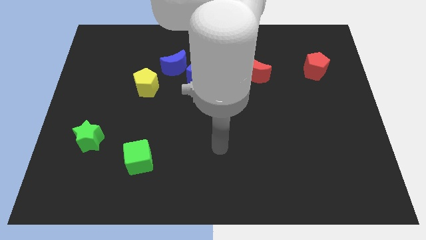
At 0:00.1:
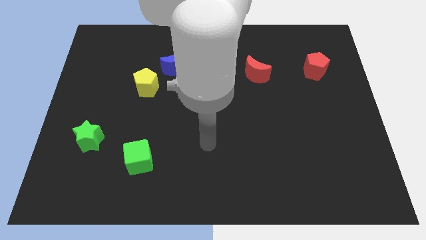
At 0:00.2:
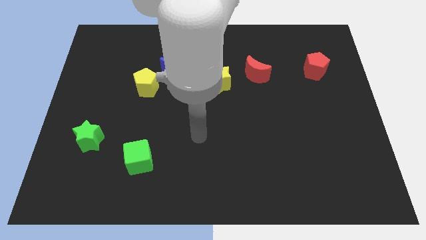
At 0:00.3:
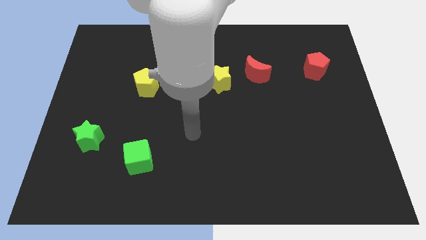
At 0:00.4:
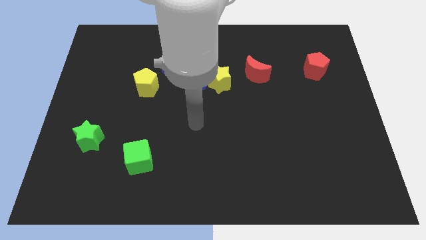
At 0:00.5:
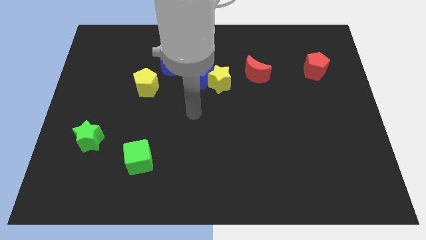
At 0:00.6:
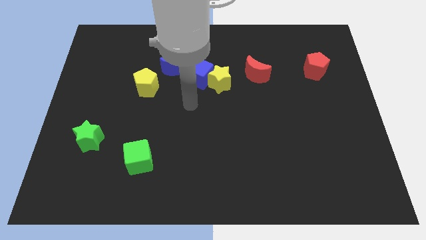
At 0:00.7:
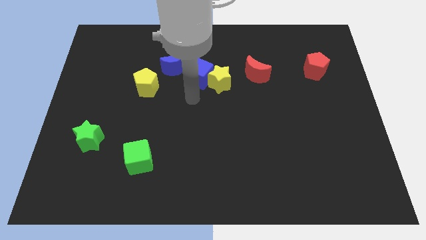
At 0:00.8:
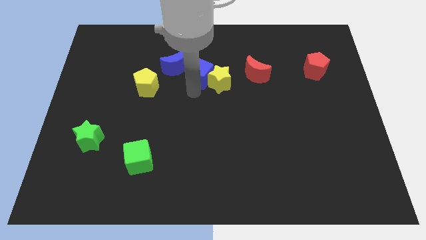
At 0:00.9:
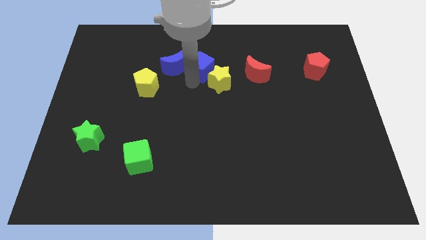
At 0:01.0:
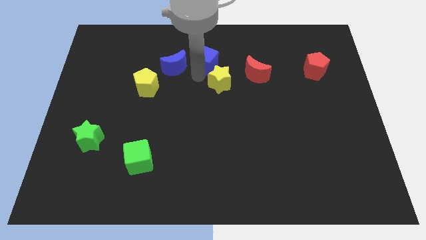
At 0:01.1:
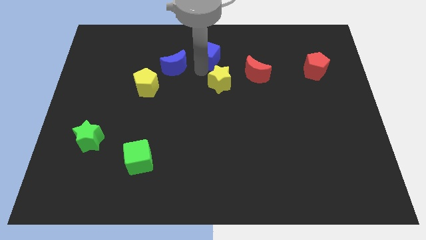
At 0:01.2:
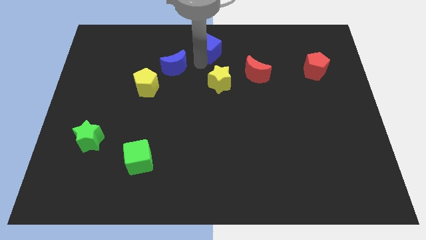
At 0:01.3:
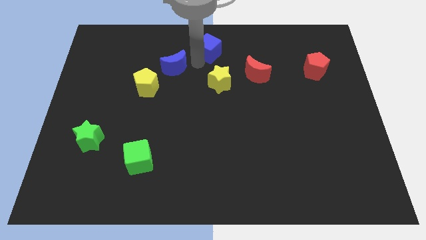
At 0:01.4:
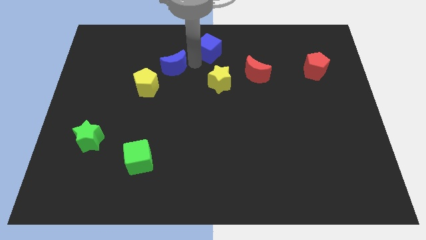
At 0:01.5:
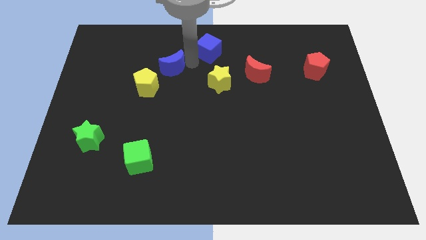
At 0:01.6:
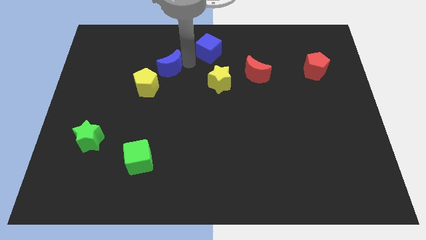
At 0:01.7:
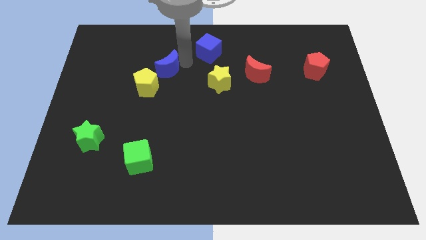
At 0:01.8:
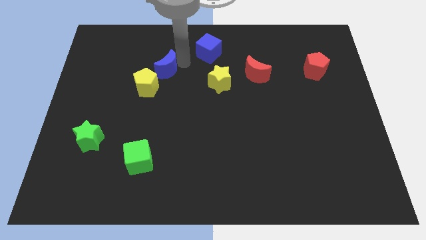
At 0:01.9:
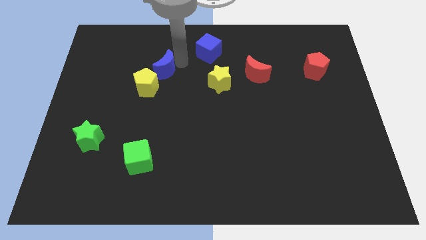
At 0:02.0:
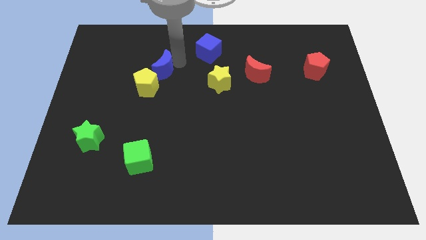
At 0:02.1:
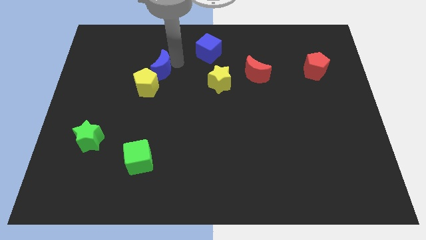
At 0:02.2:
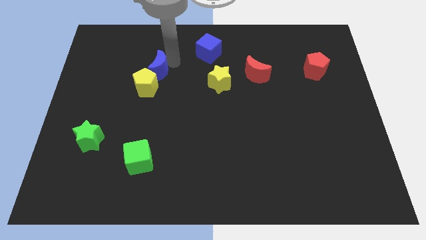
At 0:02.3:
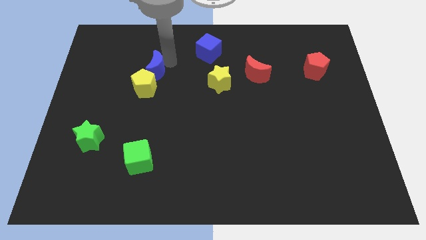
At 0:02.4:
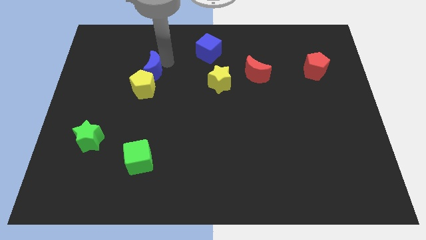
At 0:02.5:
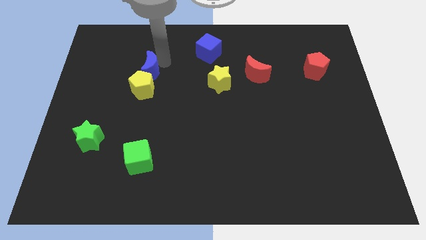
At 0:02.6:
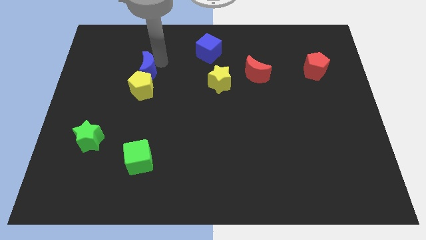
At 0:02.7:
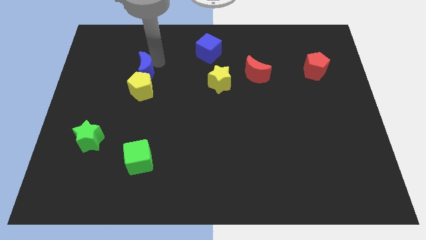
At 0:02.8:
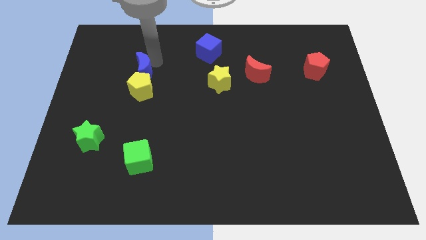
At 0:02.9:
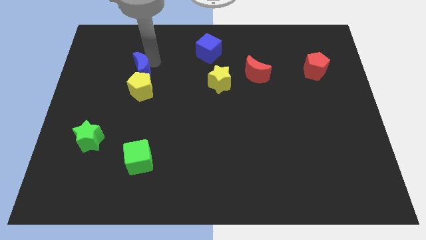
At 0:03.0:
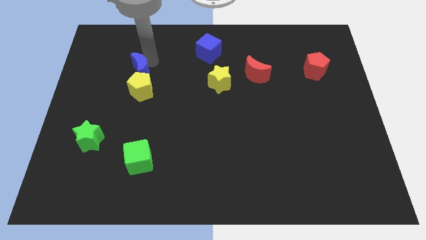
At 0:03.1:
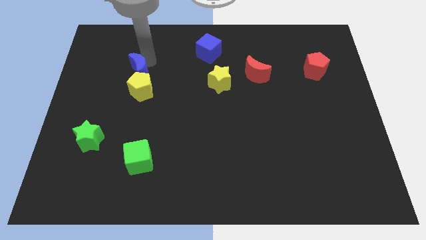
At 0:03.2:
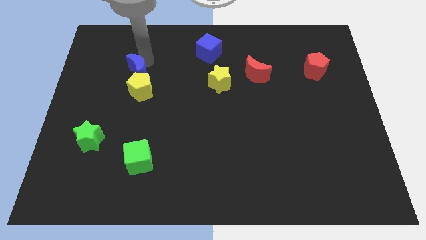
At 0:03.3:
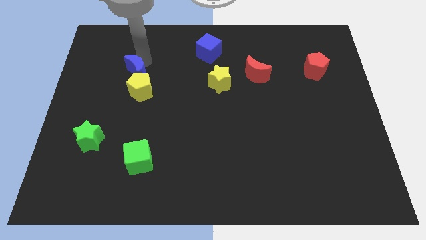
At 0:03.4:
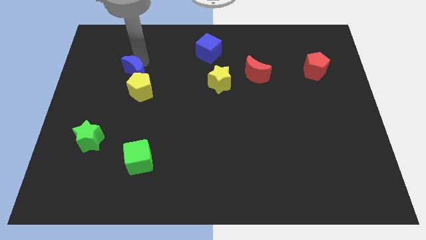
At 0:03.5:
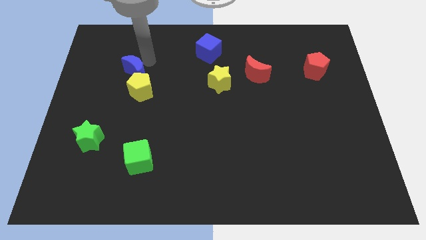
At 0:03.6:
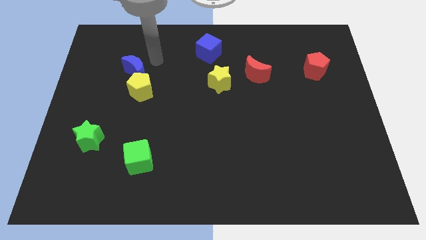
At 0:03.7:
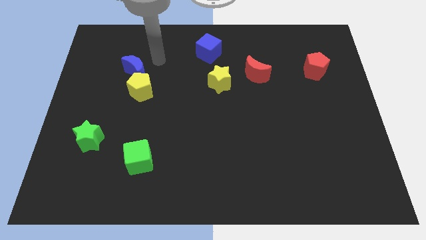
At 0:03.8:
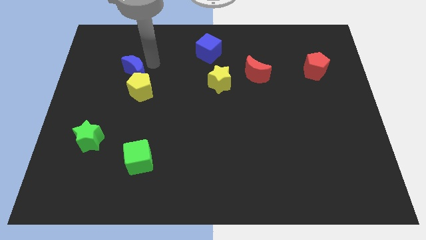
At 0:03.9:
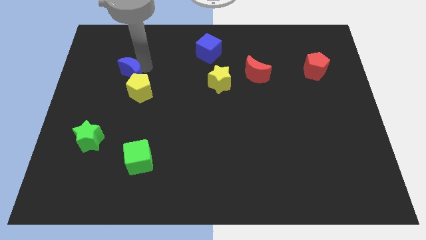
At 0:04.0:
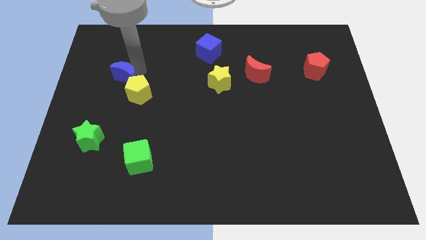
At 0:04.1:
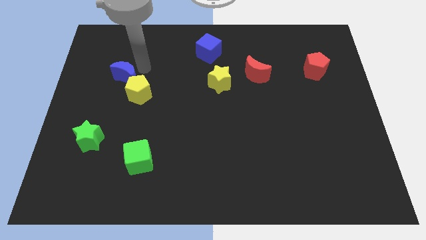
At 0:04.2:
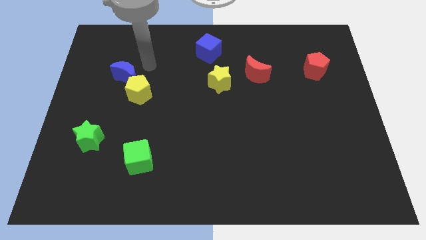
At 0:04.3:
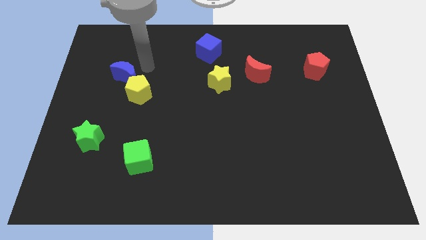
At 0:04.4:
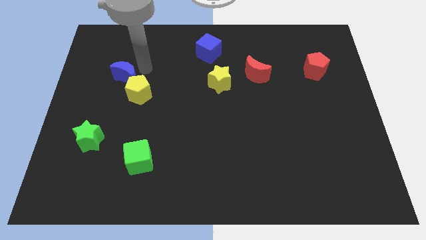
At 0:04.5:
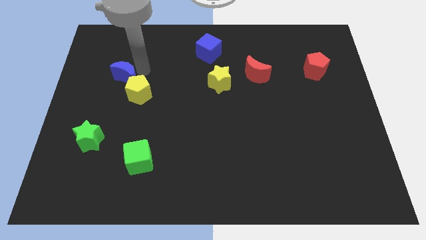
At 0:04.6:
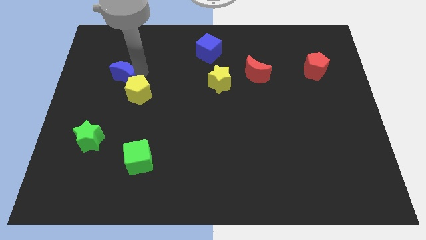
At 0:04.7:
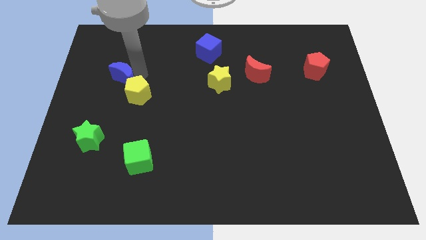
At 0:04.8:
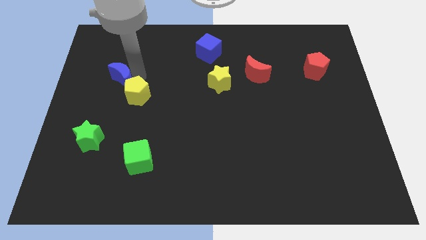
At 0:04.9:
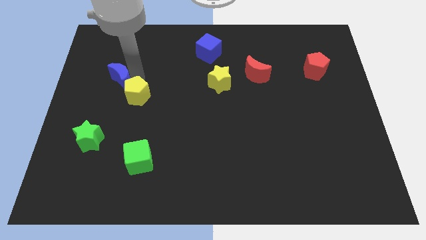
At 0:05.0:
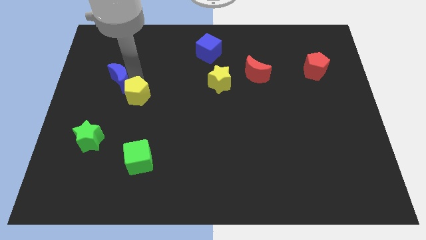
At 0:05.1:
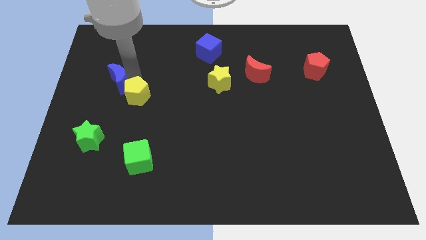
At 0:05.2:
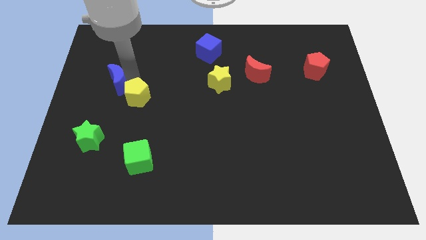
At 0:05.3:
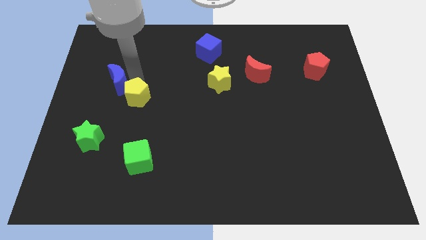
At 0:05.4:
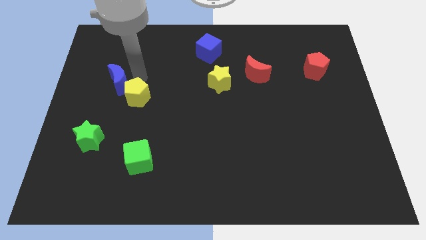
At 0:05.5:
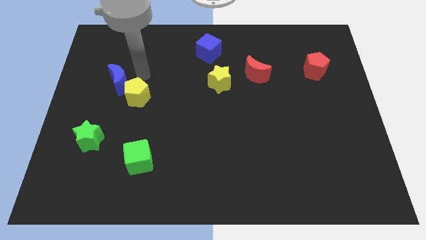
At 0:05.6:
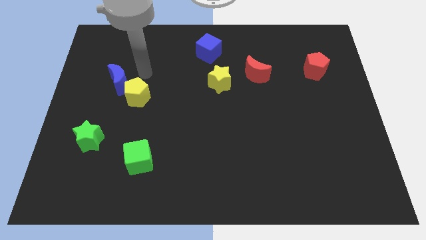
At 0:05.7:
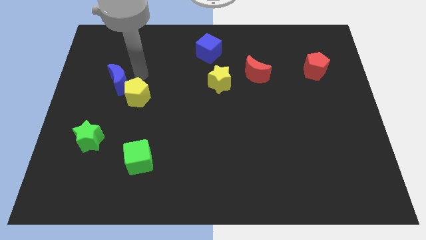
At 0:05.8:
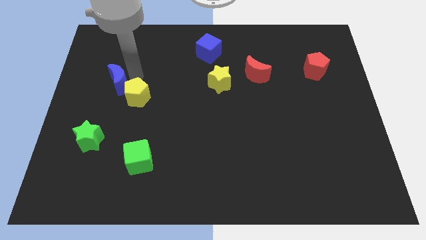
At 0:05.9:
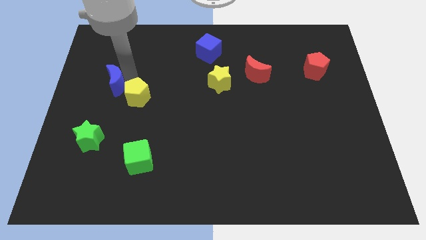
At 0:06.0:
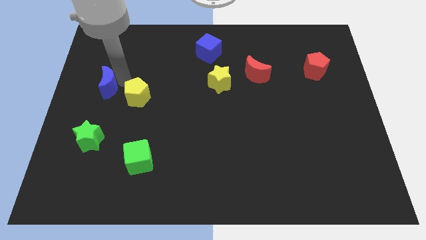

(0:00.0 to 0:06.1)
move the blue moon to the left side

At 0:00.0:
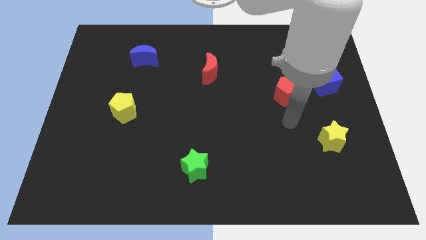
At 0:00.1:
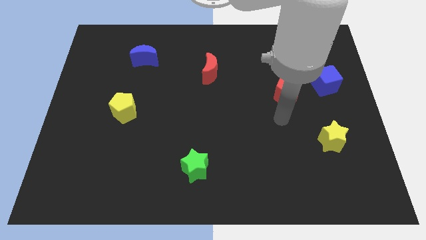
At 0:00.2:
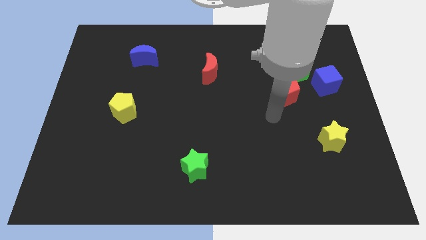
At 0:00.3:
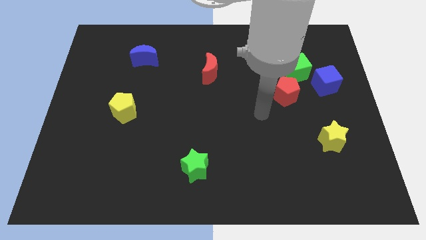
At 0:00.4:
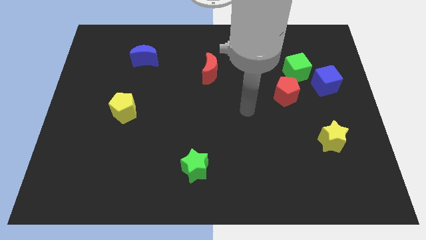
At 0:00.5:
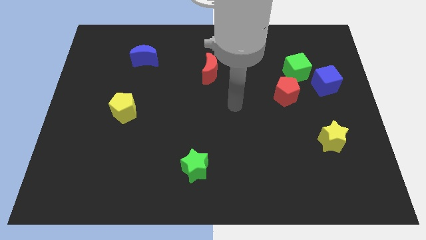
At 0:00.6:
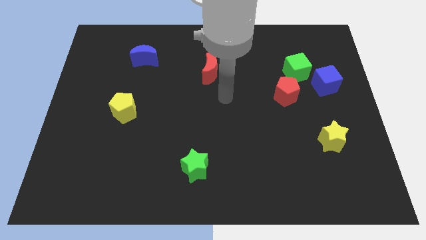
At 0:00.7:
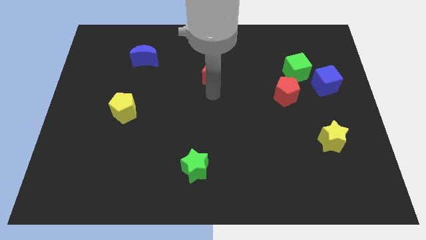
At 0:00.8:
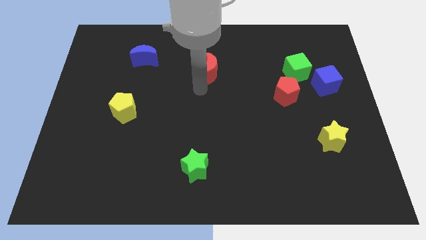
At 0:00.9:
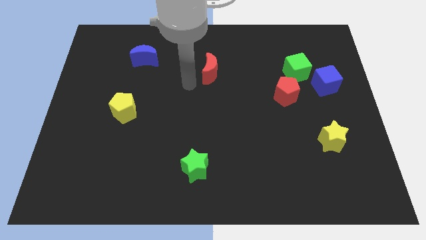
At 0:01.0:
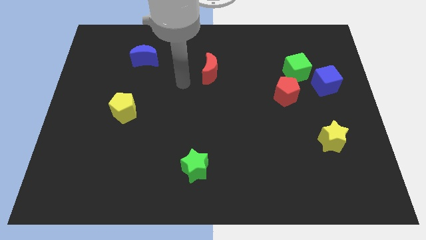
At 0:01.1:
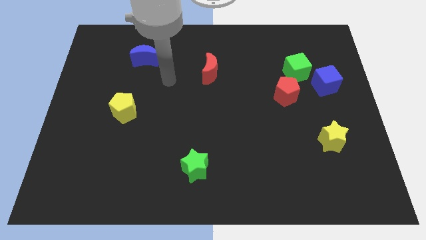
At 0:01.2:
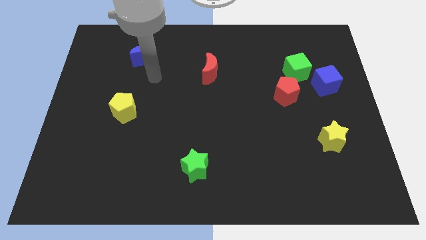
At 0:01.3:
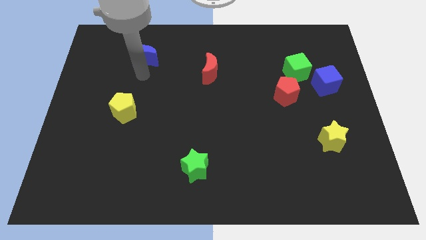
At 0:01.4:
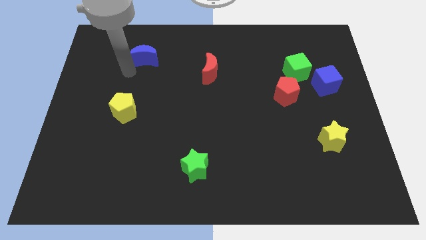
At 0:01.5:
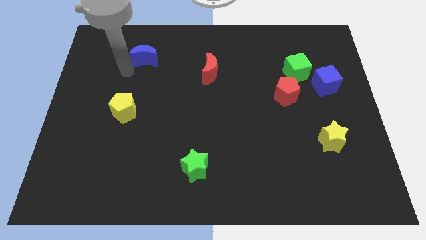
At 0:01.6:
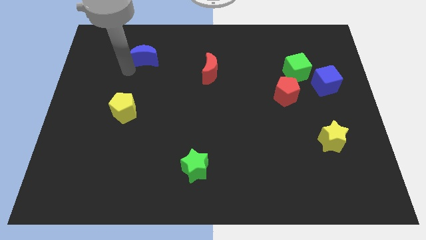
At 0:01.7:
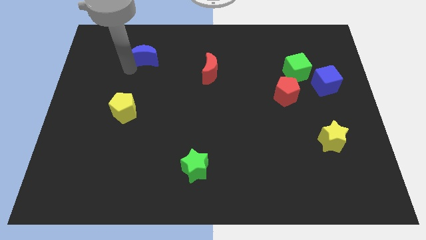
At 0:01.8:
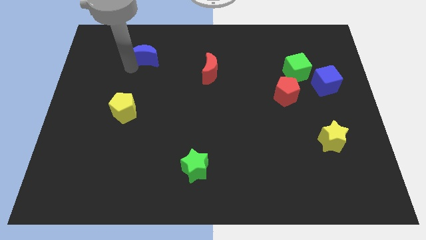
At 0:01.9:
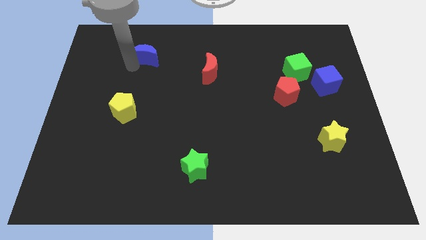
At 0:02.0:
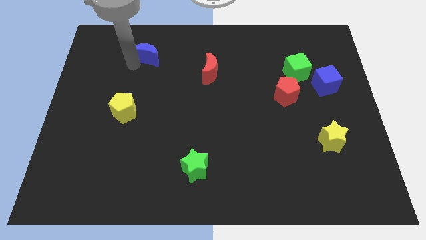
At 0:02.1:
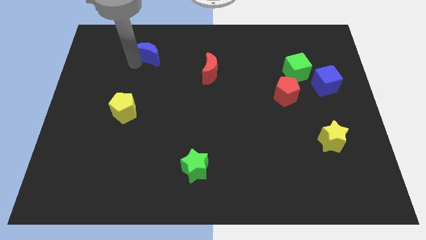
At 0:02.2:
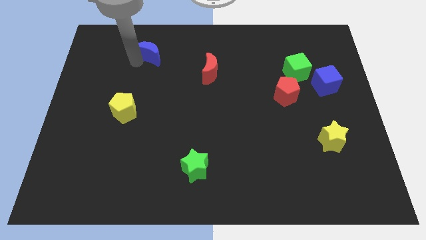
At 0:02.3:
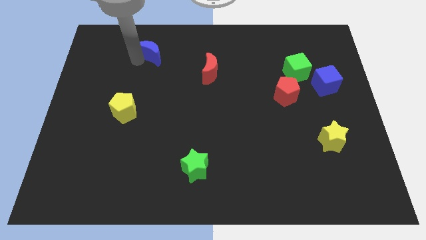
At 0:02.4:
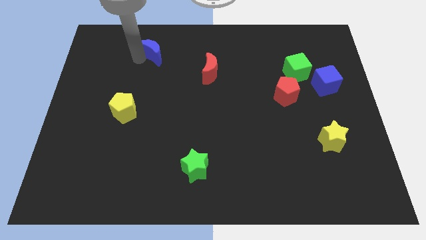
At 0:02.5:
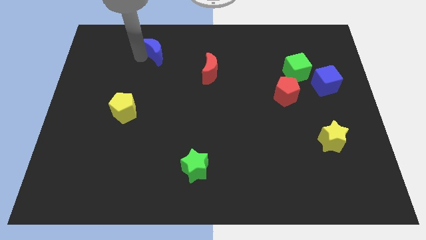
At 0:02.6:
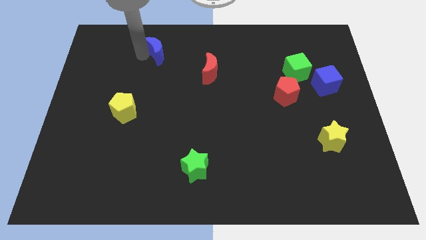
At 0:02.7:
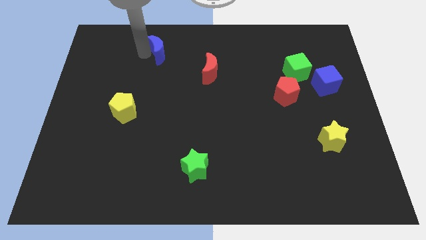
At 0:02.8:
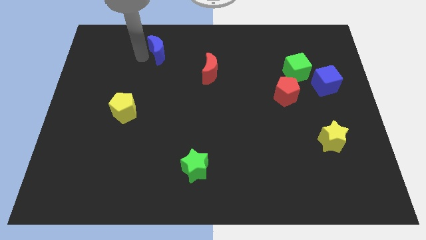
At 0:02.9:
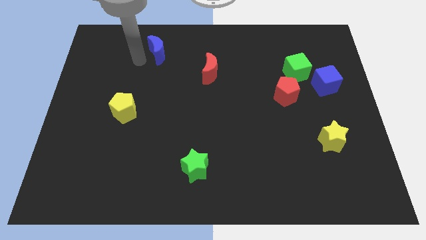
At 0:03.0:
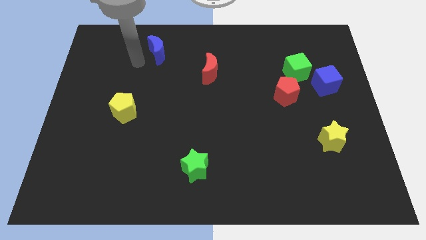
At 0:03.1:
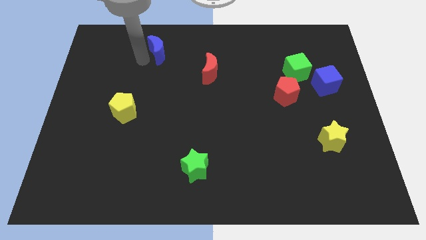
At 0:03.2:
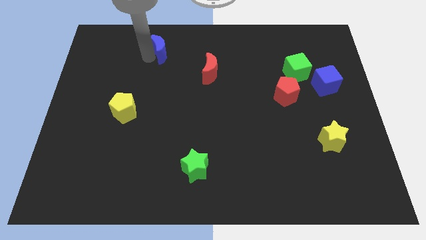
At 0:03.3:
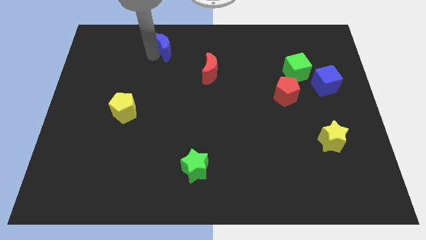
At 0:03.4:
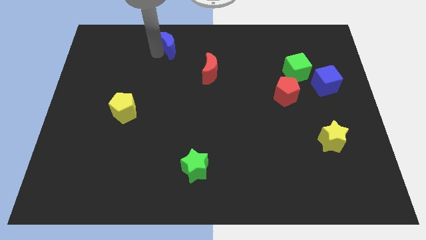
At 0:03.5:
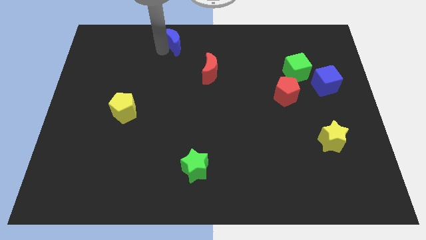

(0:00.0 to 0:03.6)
move the blue moon to the towards your base
